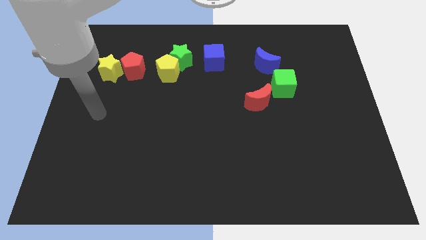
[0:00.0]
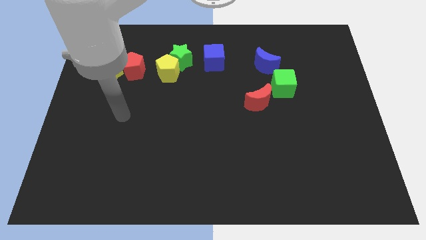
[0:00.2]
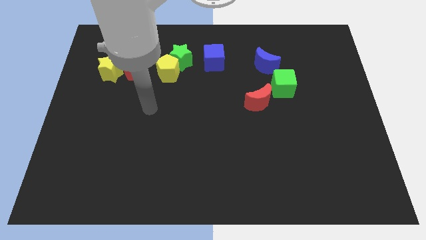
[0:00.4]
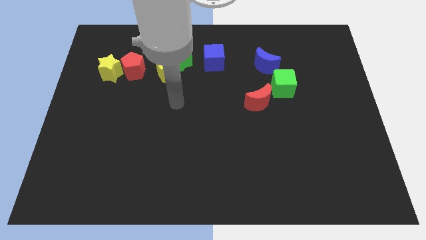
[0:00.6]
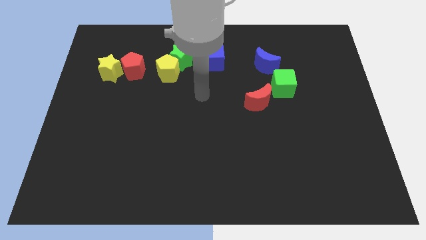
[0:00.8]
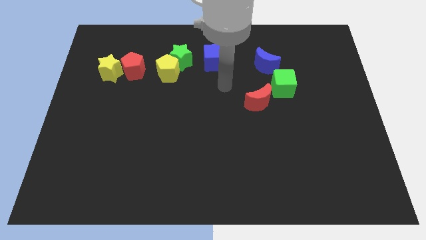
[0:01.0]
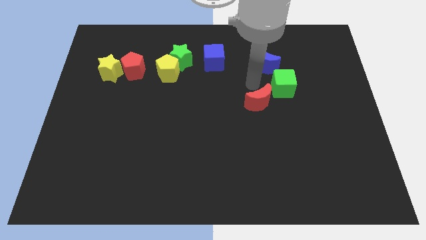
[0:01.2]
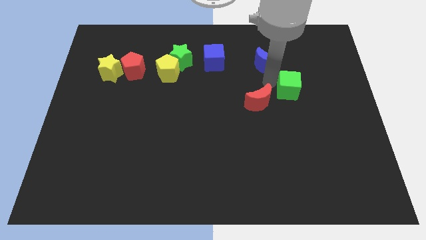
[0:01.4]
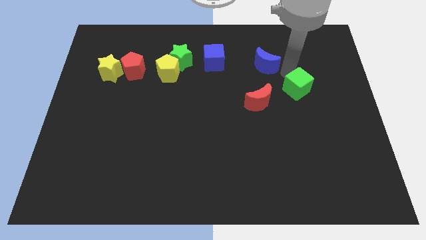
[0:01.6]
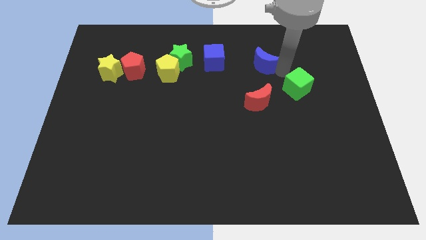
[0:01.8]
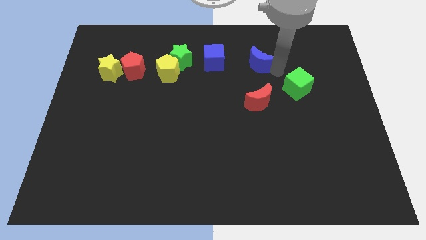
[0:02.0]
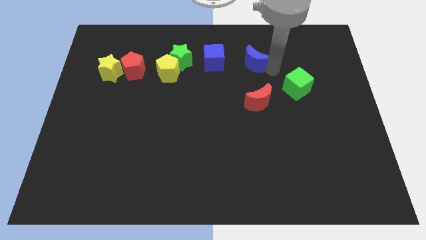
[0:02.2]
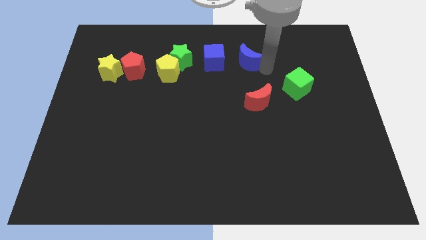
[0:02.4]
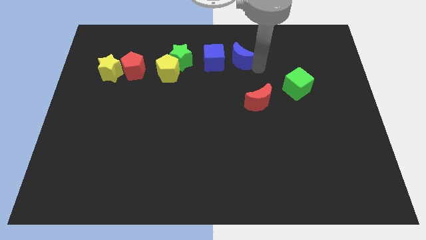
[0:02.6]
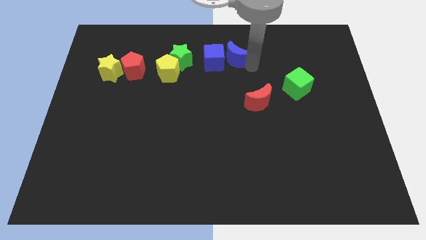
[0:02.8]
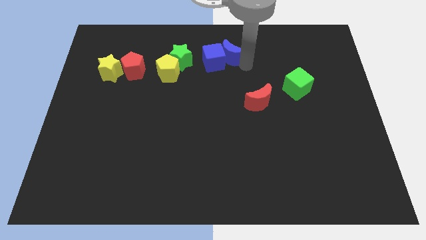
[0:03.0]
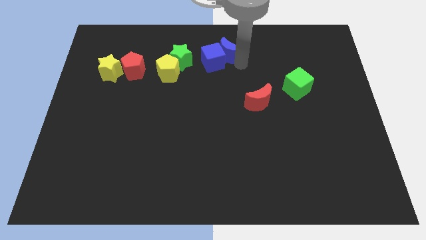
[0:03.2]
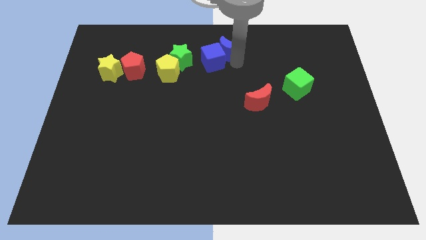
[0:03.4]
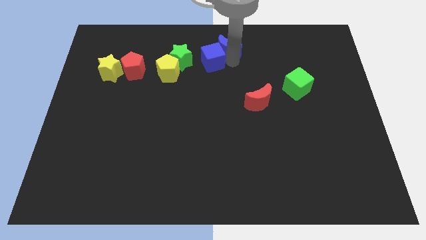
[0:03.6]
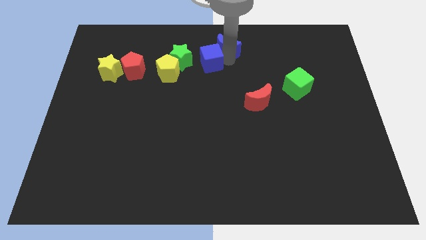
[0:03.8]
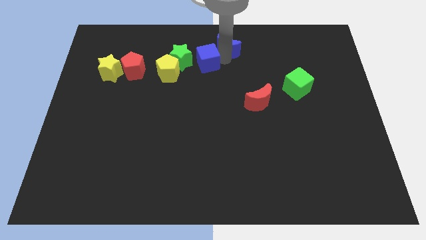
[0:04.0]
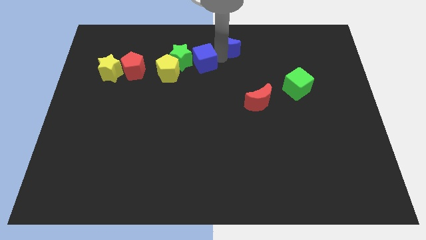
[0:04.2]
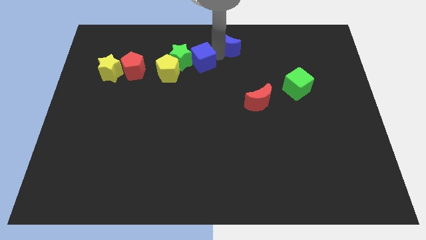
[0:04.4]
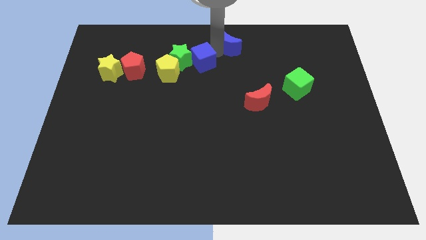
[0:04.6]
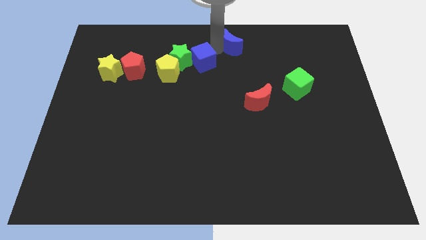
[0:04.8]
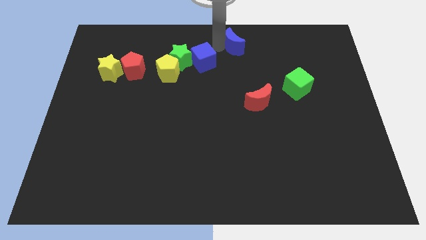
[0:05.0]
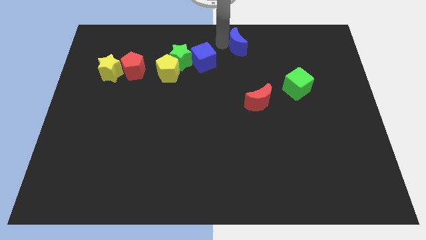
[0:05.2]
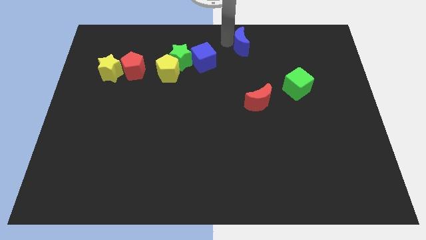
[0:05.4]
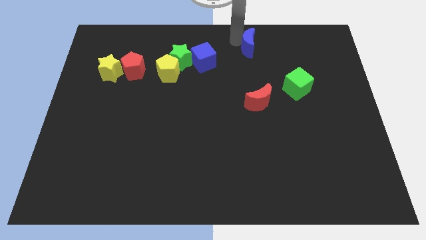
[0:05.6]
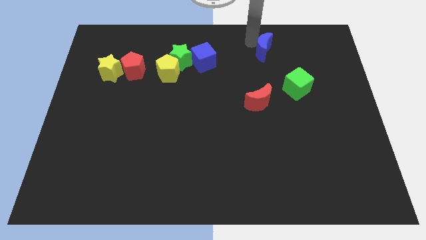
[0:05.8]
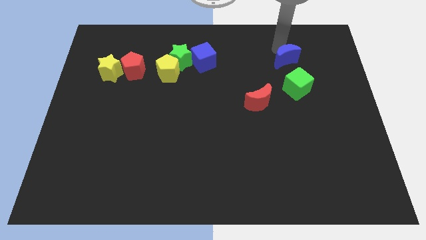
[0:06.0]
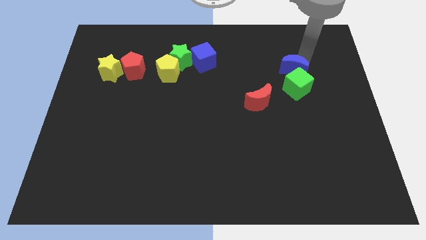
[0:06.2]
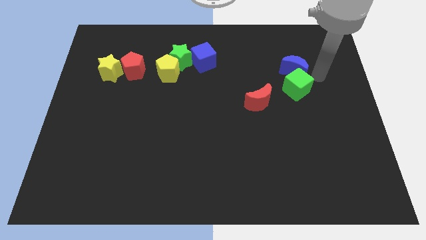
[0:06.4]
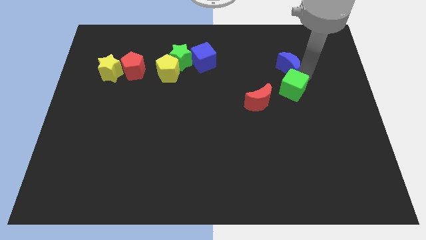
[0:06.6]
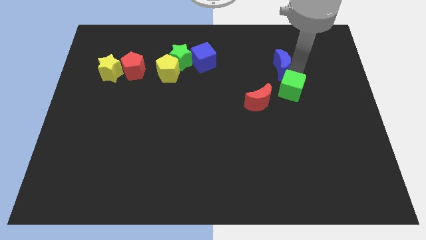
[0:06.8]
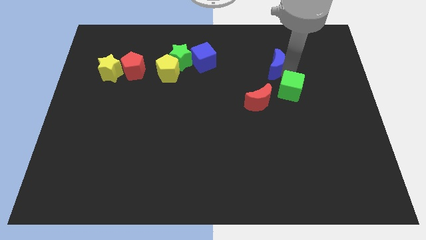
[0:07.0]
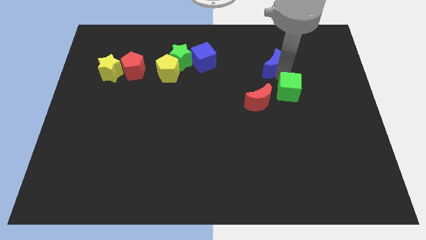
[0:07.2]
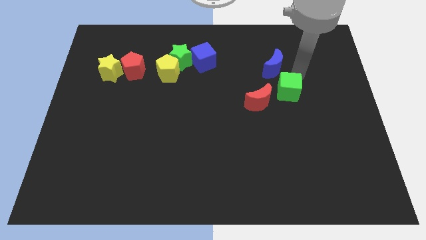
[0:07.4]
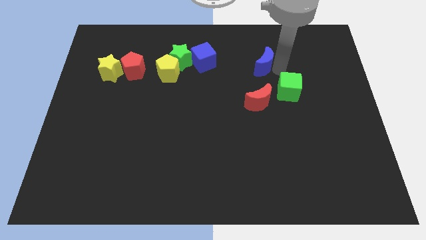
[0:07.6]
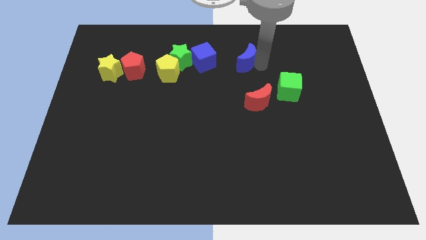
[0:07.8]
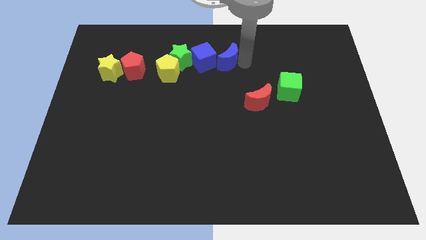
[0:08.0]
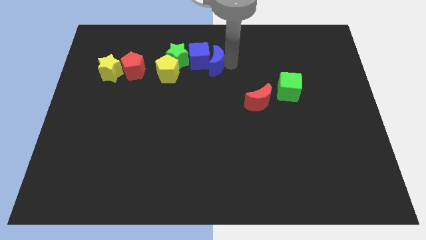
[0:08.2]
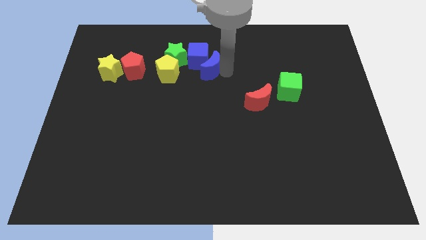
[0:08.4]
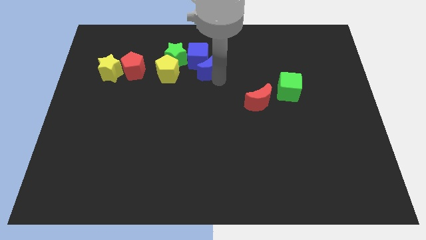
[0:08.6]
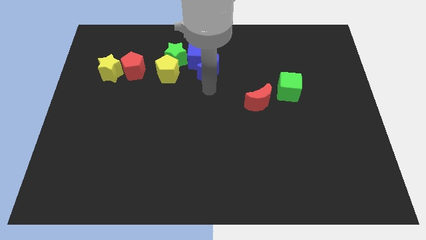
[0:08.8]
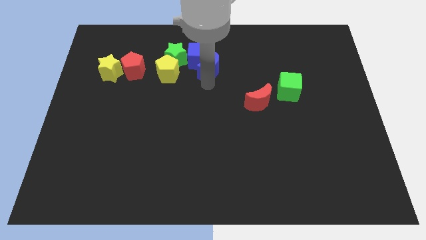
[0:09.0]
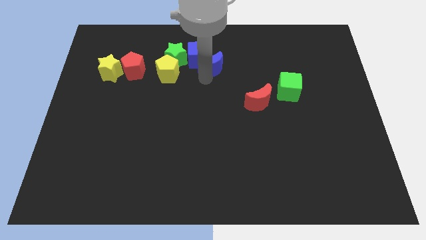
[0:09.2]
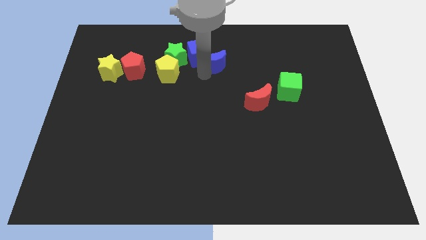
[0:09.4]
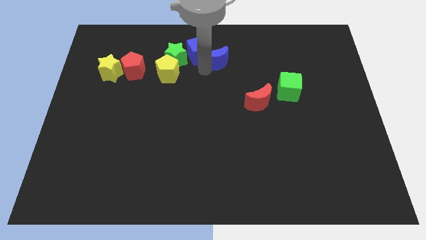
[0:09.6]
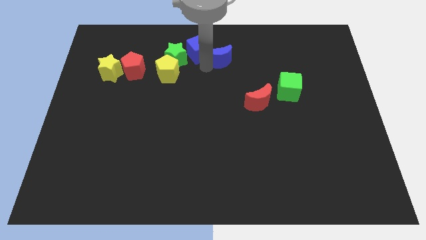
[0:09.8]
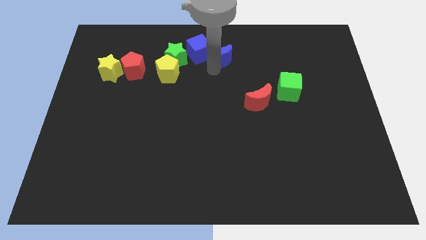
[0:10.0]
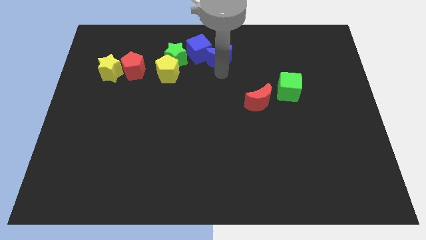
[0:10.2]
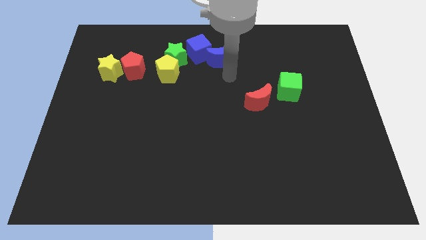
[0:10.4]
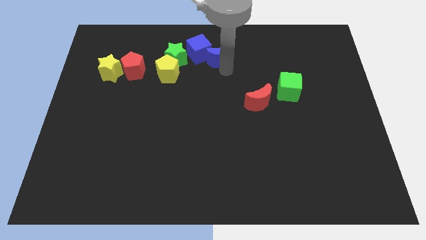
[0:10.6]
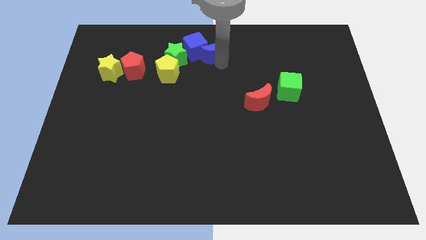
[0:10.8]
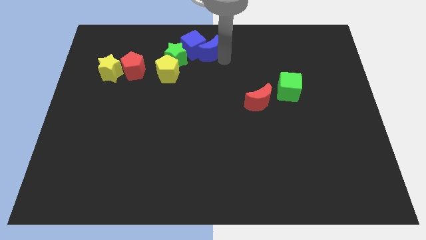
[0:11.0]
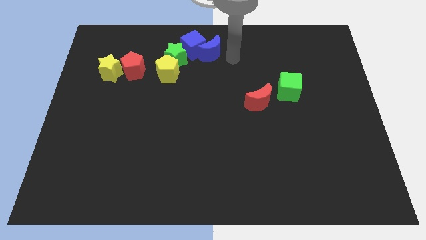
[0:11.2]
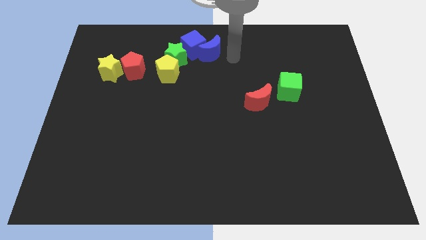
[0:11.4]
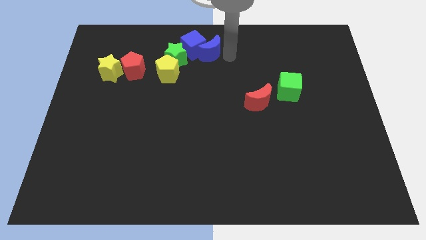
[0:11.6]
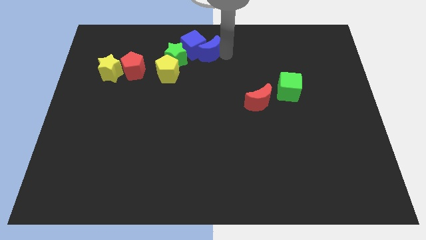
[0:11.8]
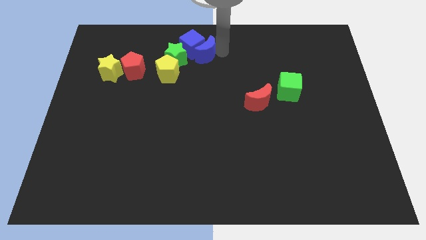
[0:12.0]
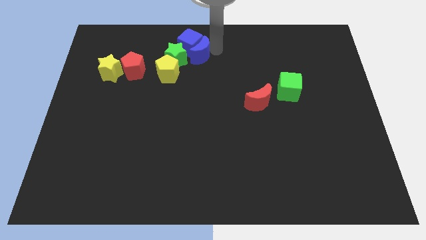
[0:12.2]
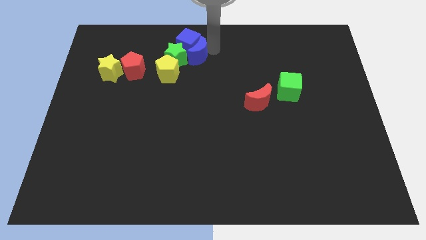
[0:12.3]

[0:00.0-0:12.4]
move the blue moon close to the green star
